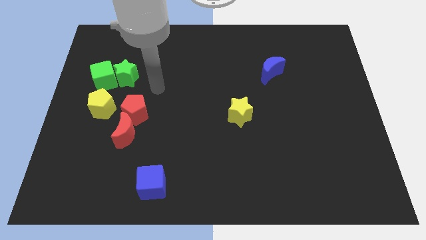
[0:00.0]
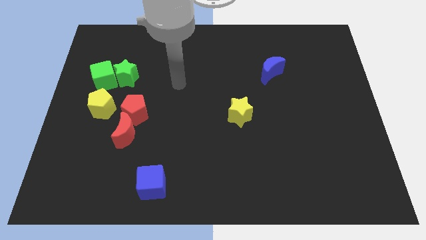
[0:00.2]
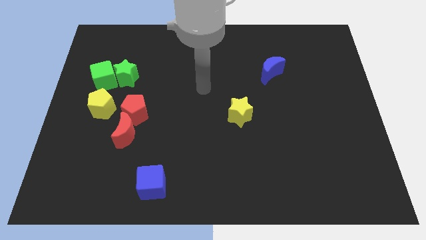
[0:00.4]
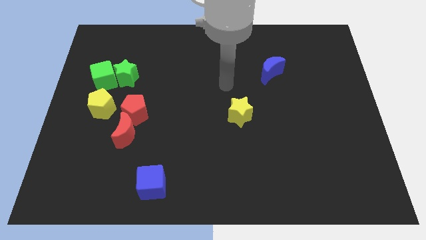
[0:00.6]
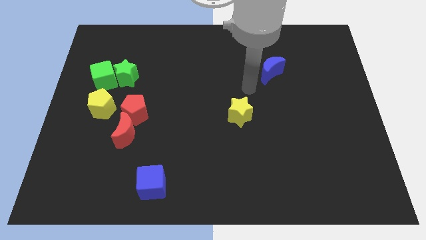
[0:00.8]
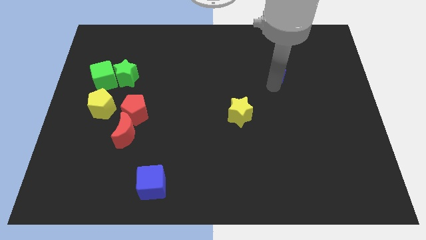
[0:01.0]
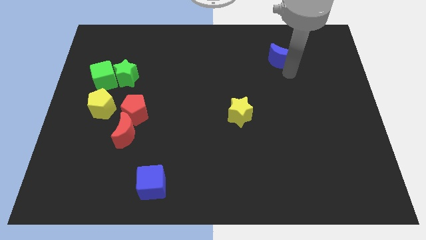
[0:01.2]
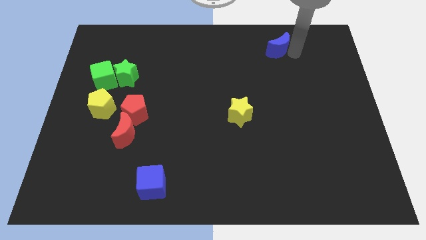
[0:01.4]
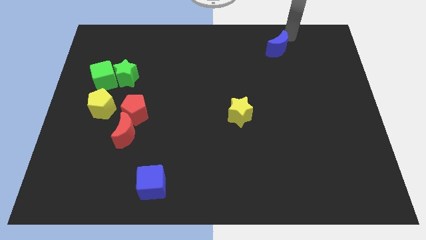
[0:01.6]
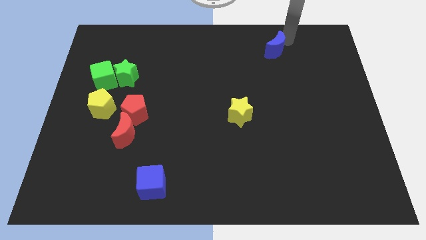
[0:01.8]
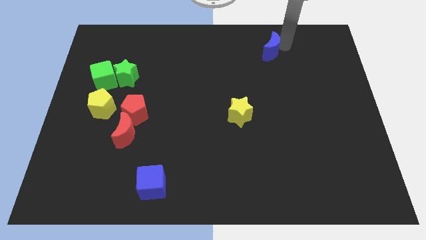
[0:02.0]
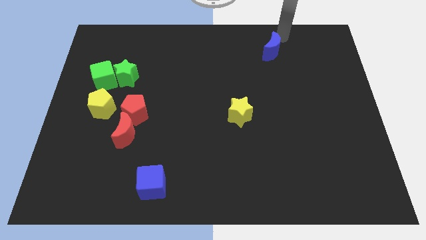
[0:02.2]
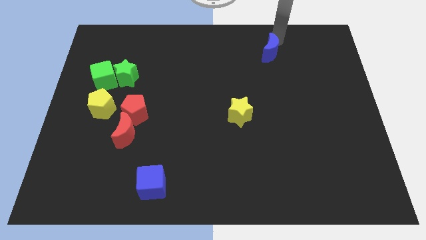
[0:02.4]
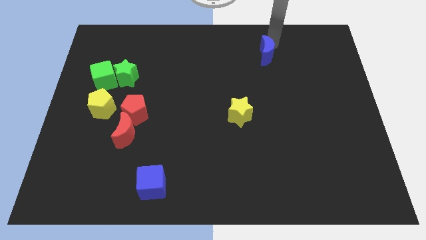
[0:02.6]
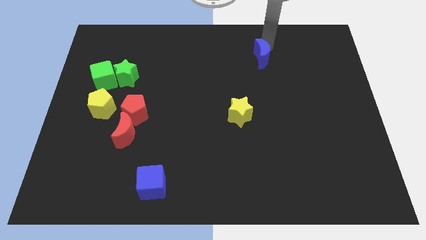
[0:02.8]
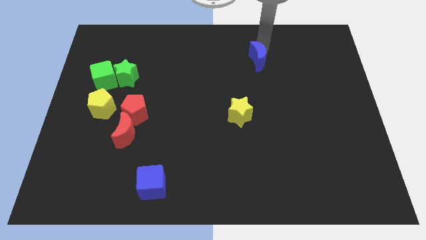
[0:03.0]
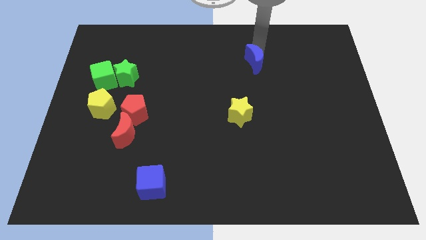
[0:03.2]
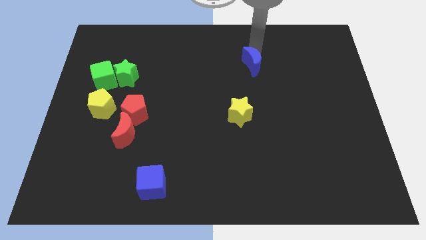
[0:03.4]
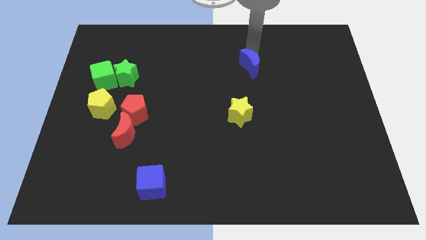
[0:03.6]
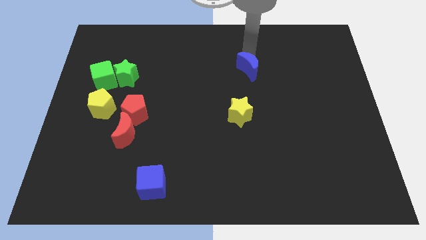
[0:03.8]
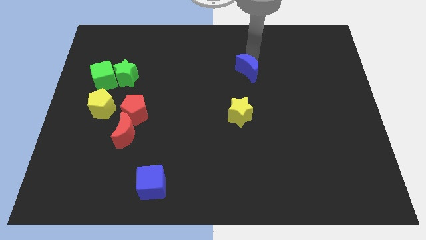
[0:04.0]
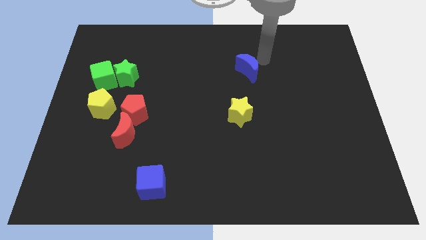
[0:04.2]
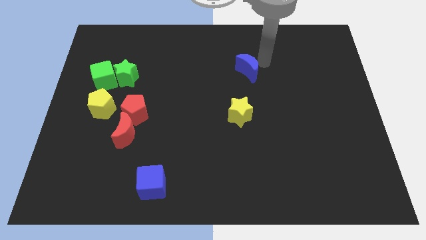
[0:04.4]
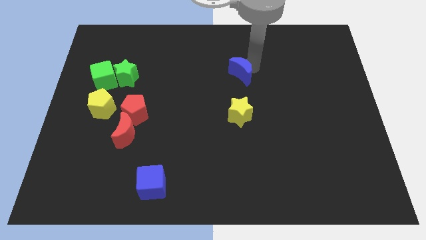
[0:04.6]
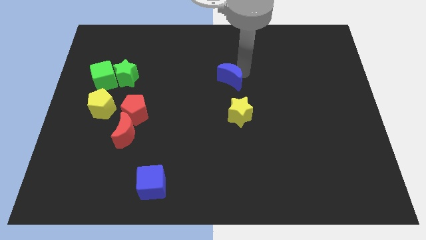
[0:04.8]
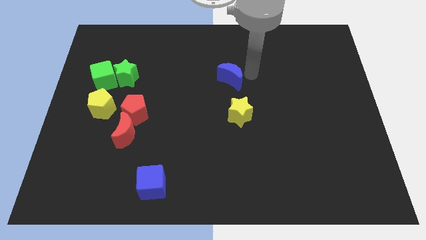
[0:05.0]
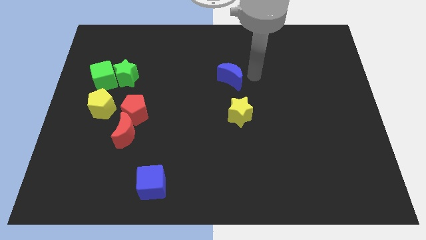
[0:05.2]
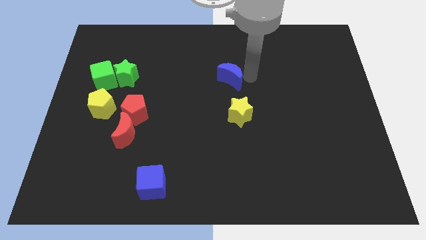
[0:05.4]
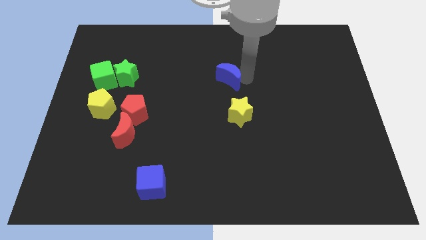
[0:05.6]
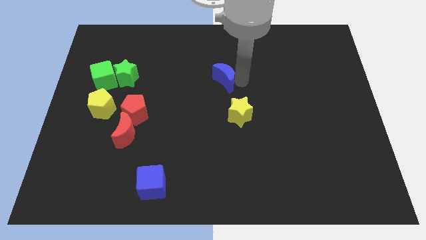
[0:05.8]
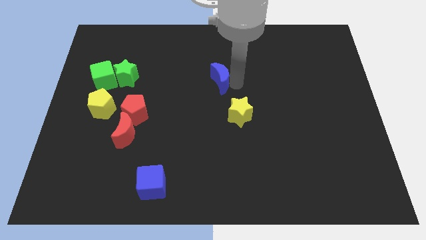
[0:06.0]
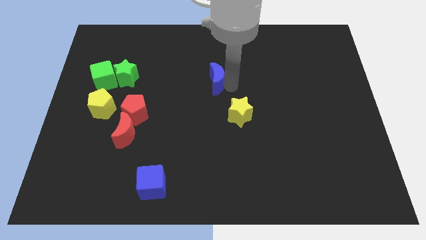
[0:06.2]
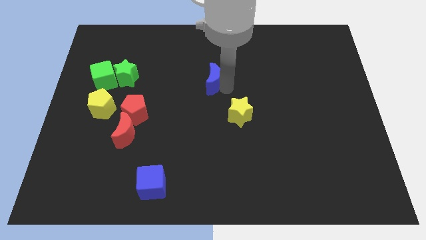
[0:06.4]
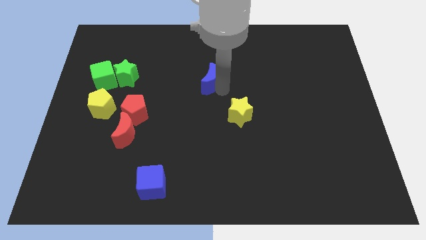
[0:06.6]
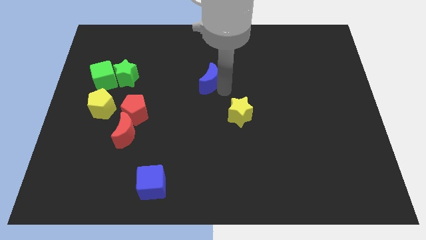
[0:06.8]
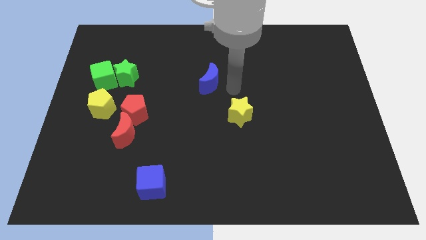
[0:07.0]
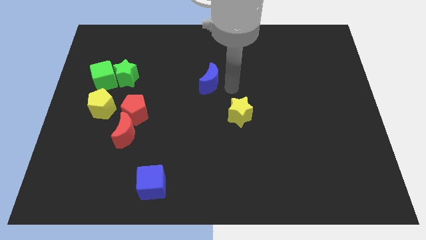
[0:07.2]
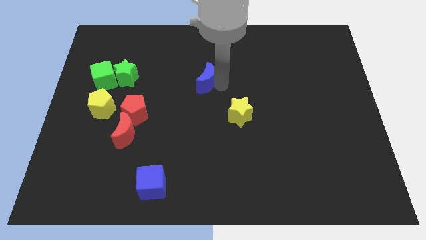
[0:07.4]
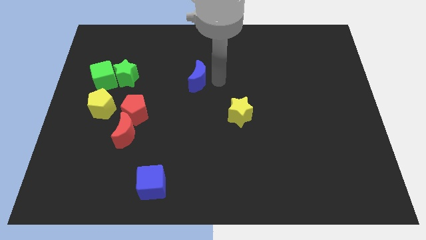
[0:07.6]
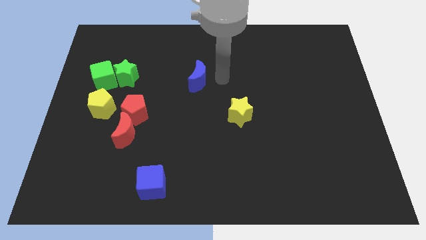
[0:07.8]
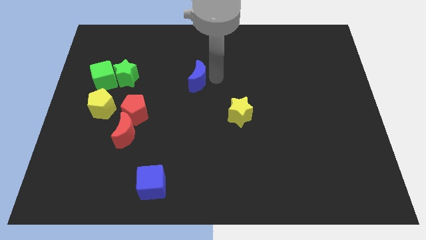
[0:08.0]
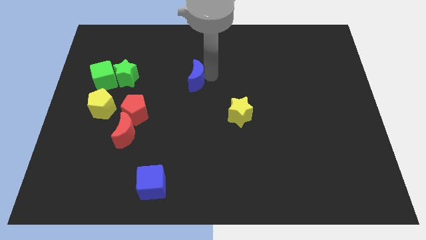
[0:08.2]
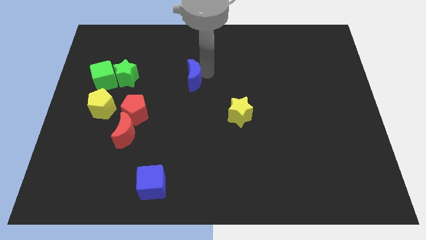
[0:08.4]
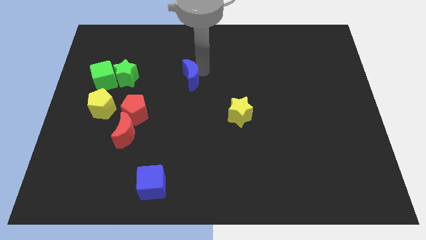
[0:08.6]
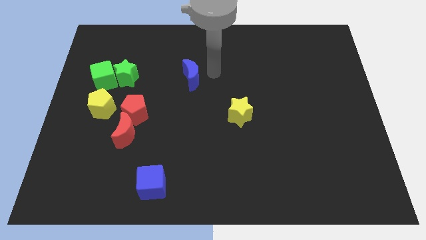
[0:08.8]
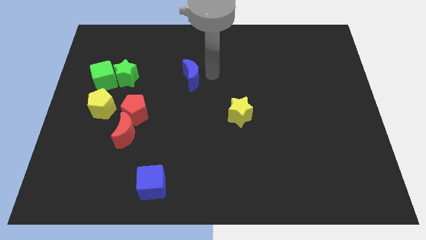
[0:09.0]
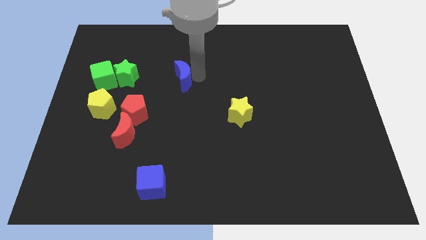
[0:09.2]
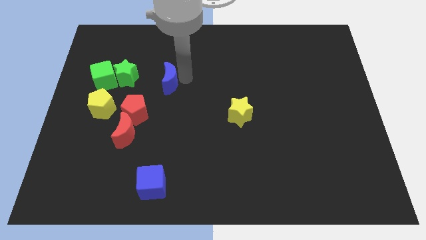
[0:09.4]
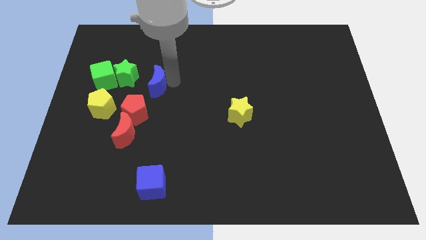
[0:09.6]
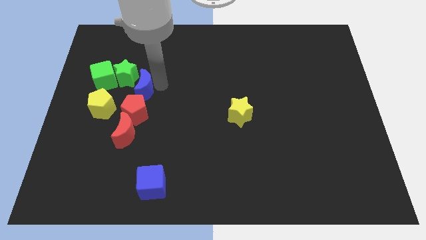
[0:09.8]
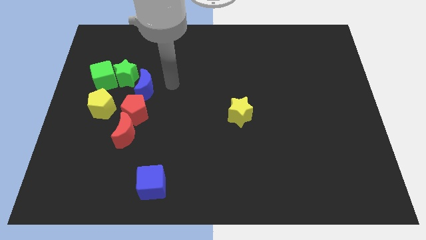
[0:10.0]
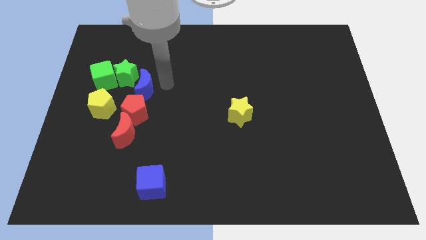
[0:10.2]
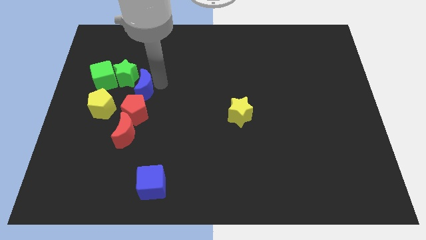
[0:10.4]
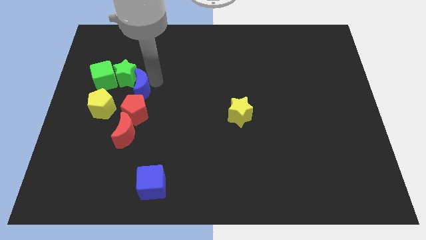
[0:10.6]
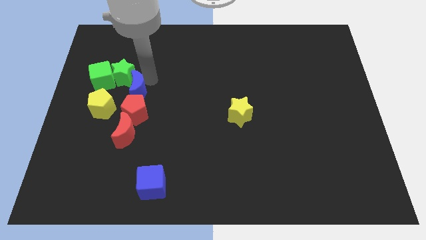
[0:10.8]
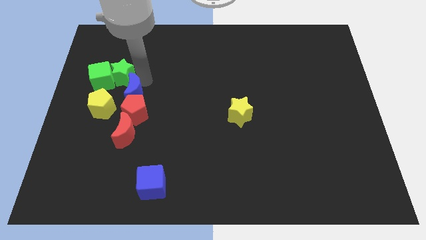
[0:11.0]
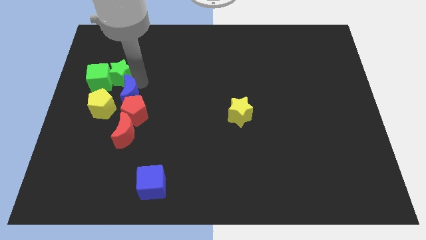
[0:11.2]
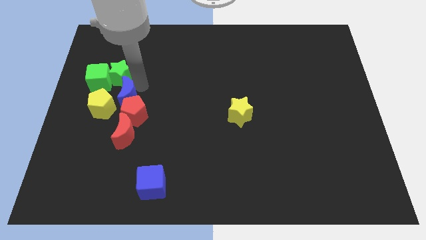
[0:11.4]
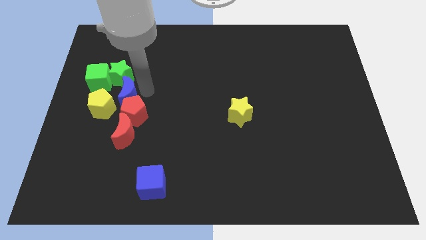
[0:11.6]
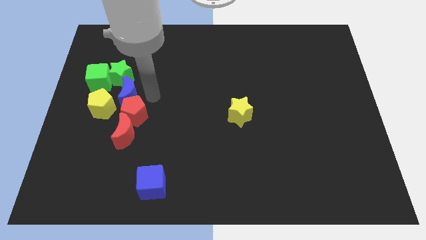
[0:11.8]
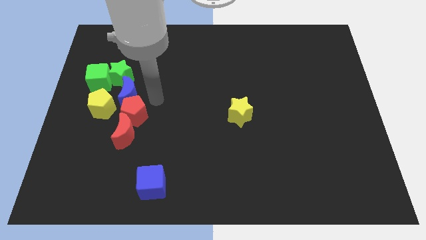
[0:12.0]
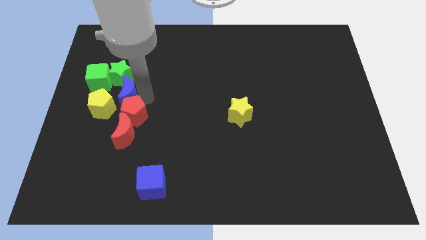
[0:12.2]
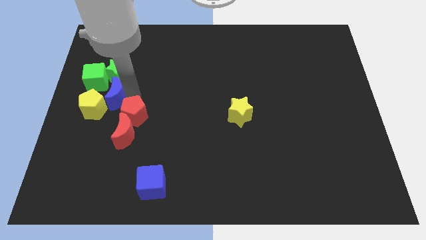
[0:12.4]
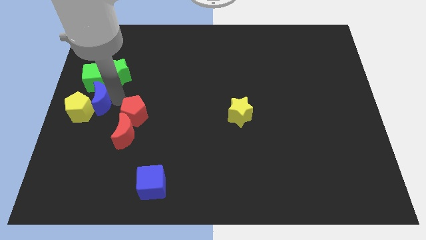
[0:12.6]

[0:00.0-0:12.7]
push the blue moon to the left side
